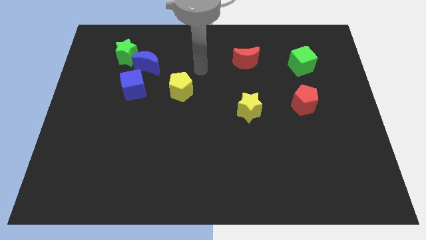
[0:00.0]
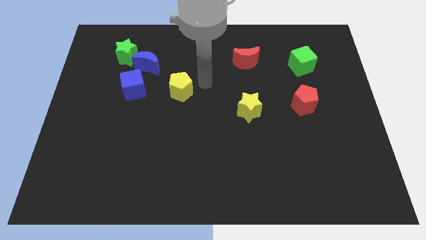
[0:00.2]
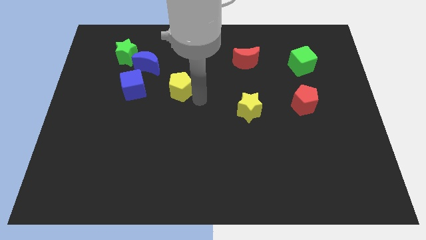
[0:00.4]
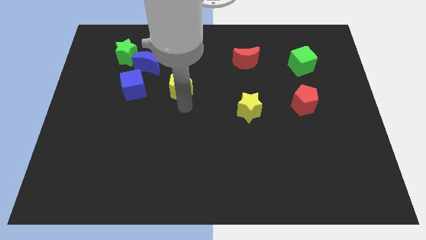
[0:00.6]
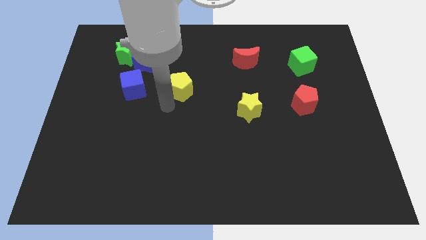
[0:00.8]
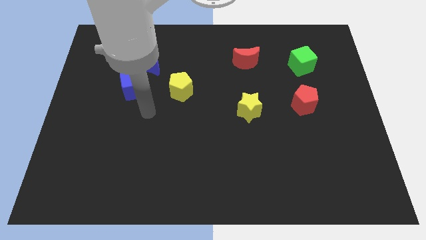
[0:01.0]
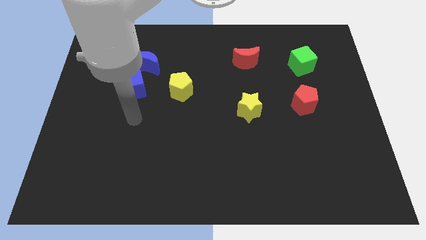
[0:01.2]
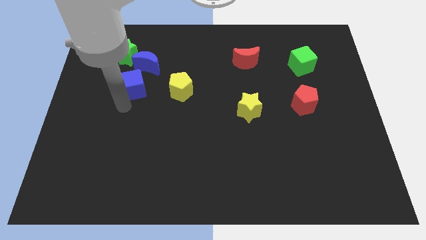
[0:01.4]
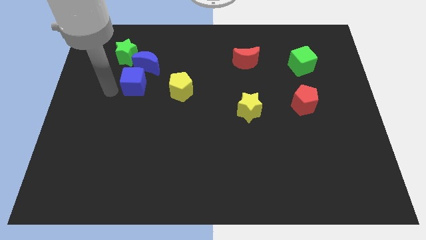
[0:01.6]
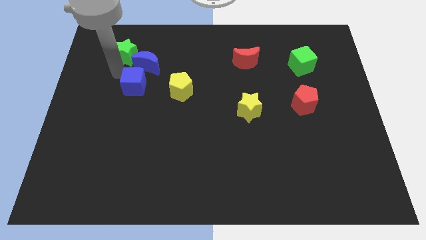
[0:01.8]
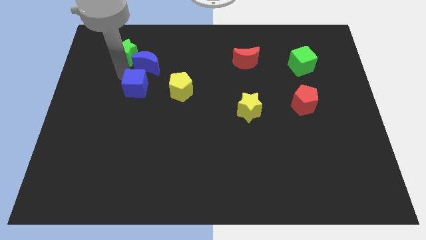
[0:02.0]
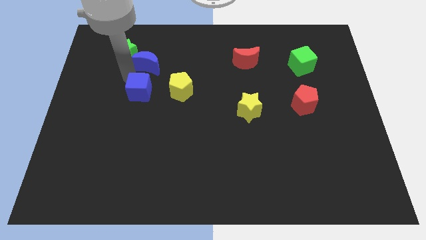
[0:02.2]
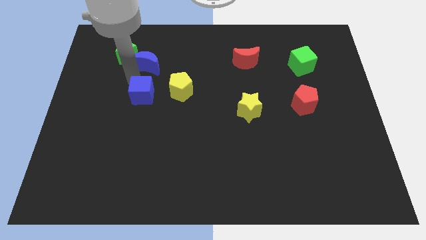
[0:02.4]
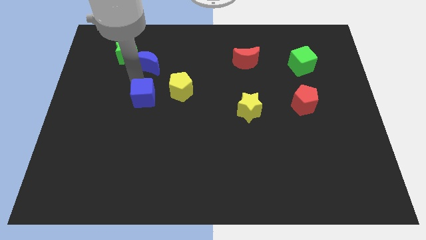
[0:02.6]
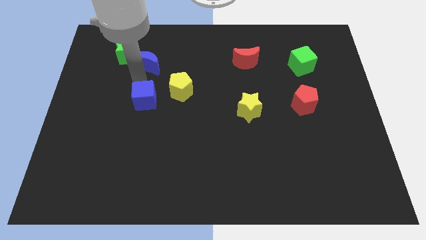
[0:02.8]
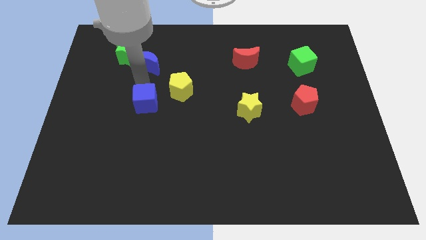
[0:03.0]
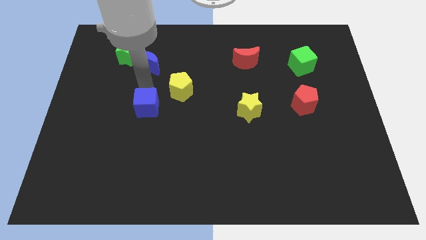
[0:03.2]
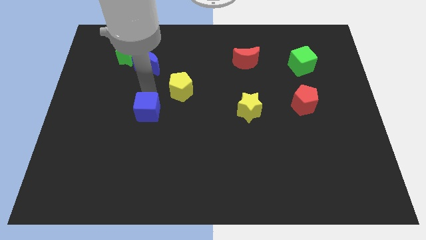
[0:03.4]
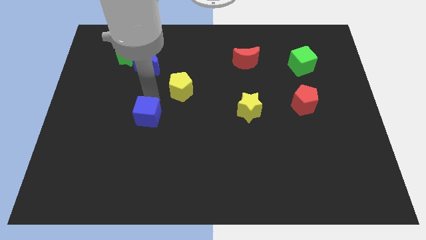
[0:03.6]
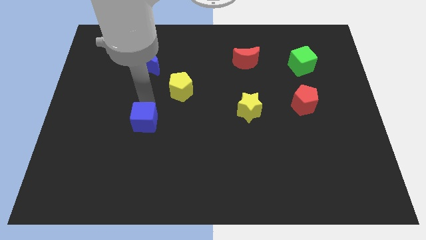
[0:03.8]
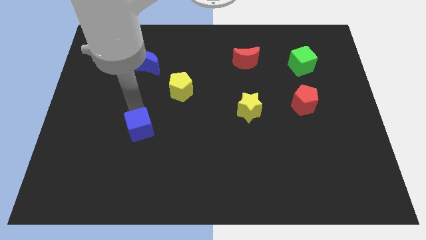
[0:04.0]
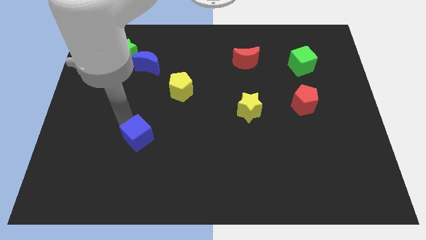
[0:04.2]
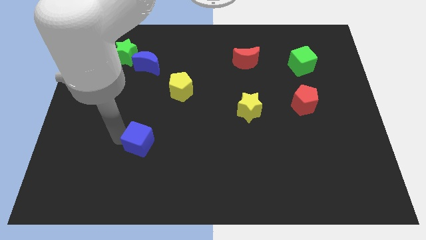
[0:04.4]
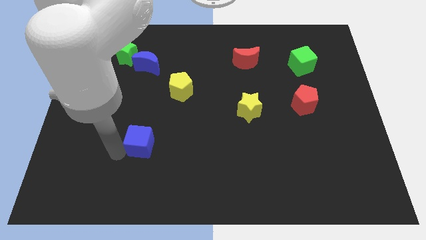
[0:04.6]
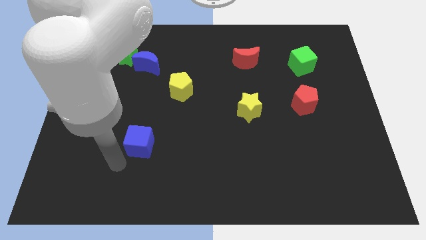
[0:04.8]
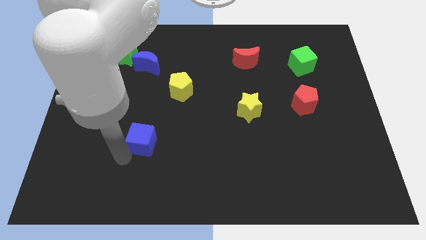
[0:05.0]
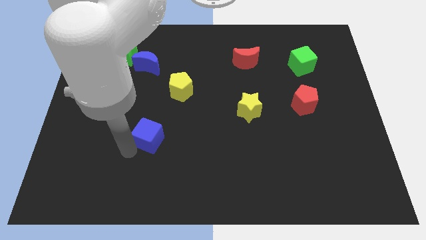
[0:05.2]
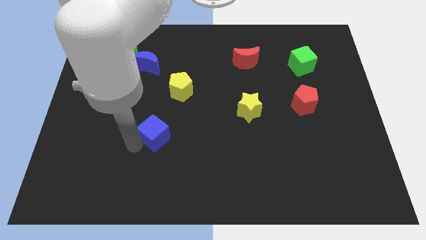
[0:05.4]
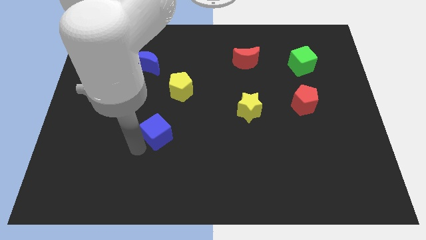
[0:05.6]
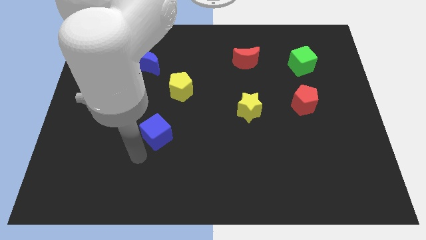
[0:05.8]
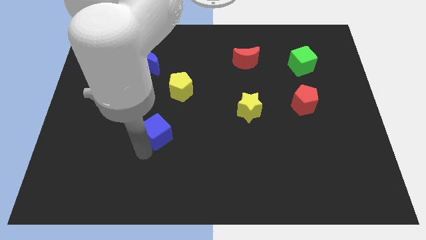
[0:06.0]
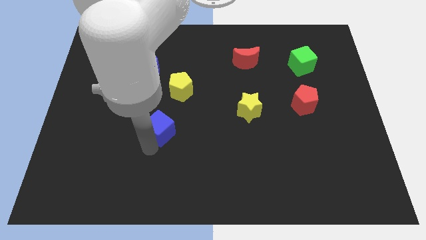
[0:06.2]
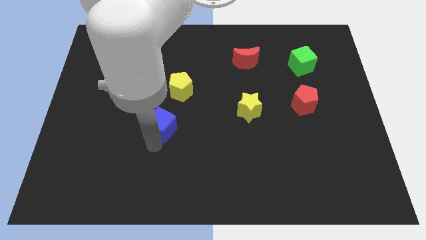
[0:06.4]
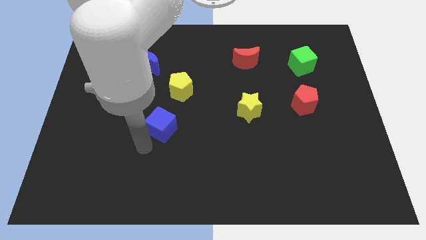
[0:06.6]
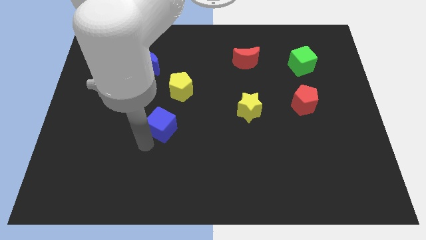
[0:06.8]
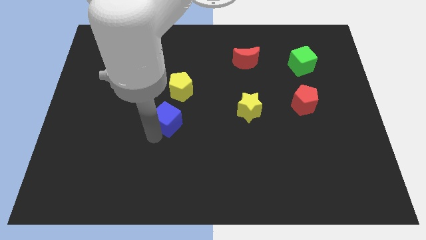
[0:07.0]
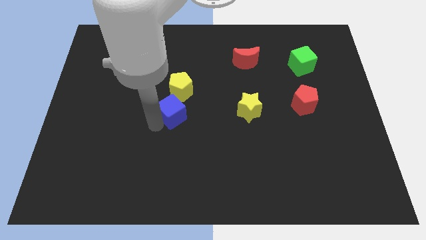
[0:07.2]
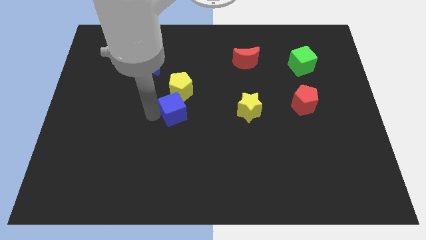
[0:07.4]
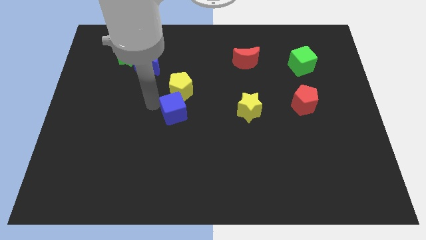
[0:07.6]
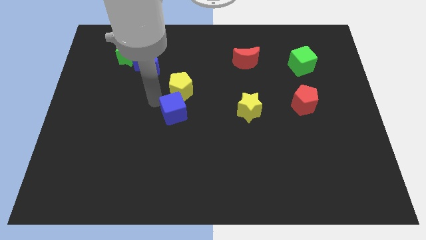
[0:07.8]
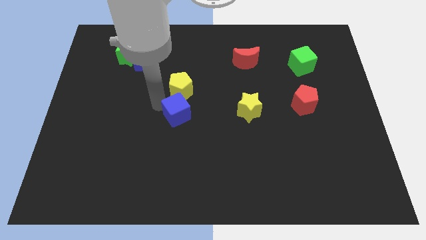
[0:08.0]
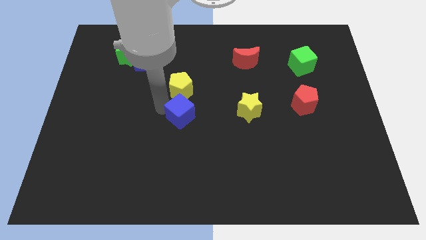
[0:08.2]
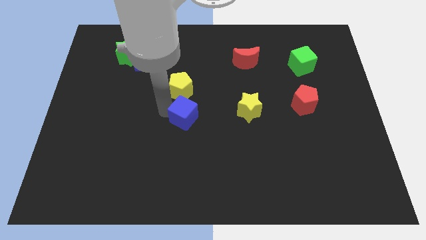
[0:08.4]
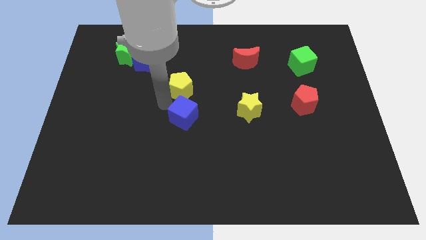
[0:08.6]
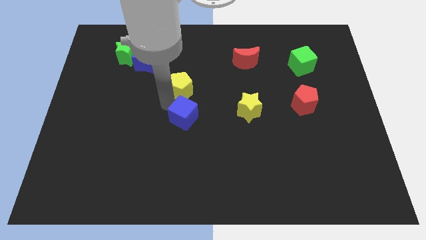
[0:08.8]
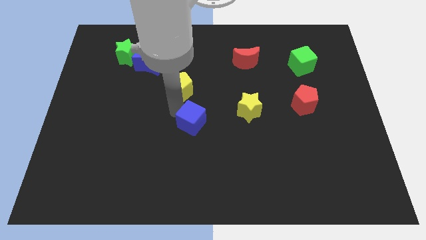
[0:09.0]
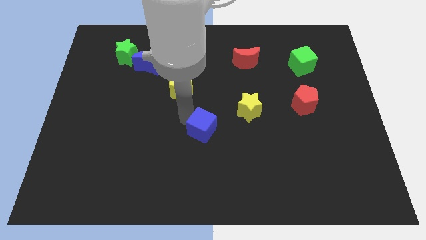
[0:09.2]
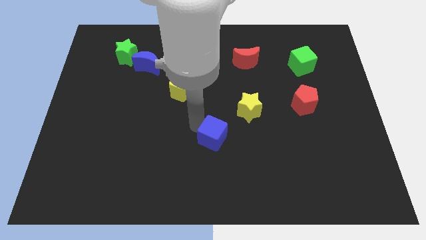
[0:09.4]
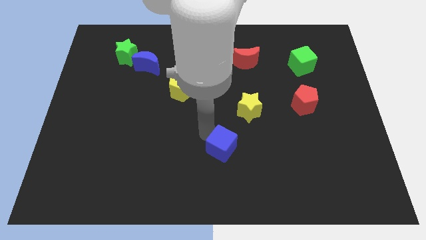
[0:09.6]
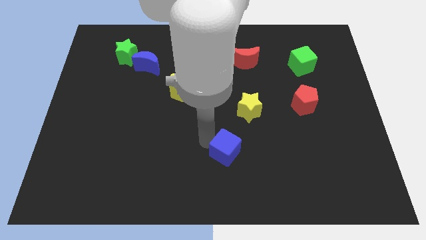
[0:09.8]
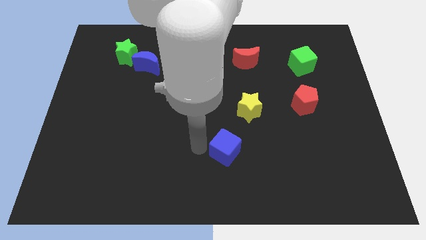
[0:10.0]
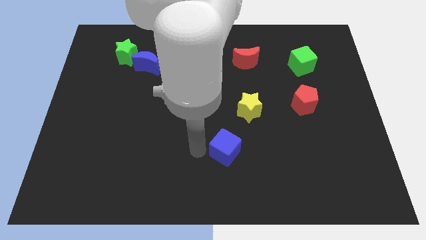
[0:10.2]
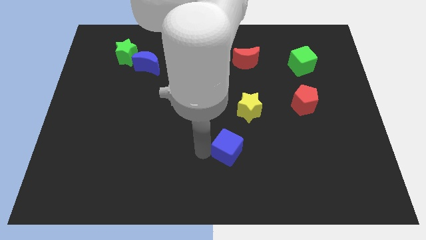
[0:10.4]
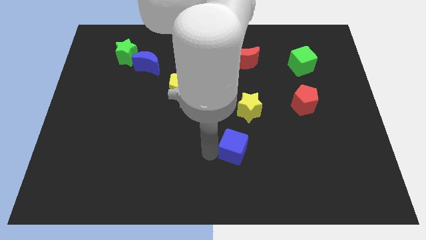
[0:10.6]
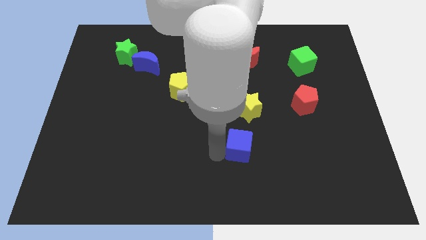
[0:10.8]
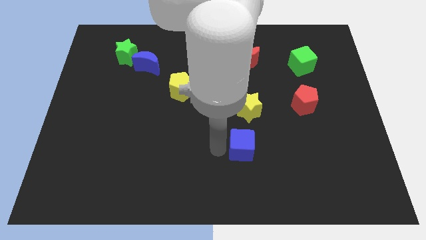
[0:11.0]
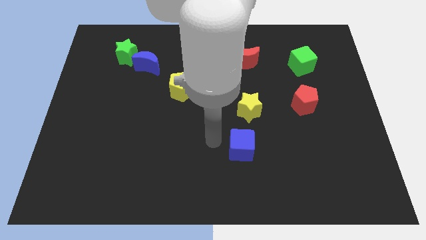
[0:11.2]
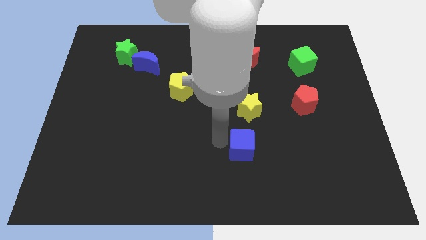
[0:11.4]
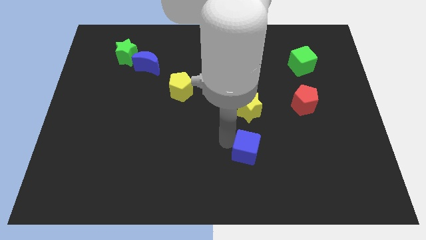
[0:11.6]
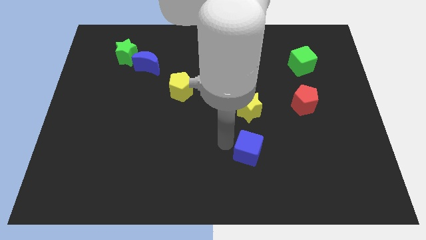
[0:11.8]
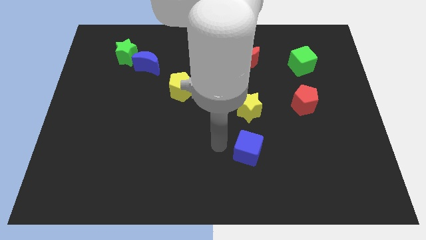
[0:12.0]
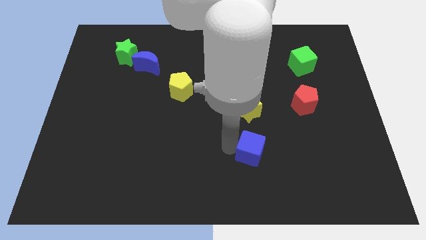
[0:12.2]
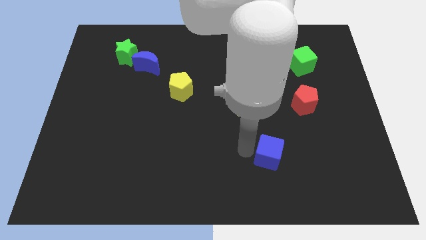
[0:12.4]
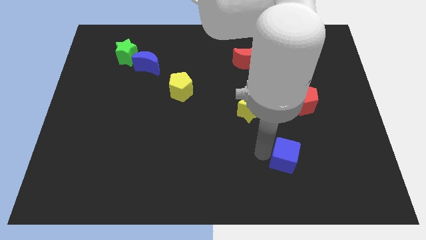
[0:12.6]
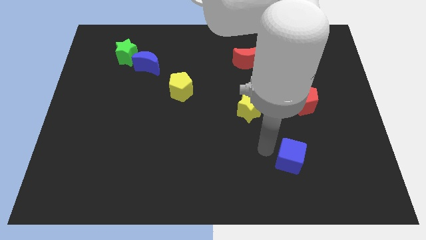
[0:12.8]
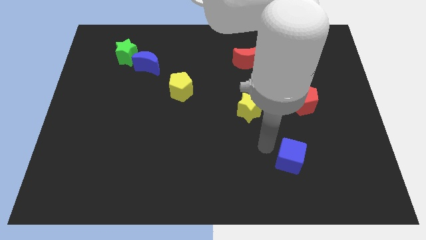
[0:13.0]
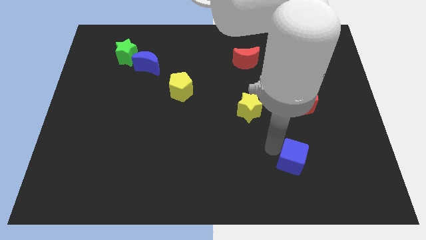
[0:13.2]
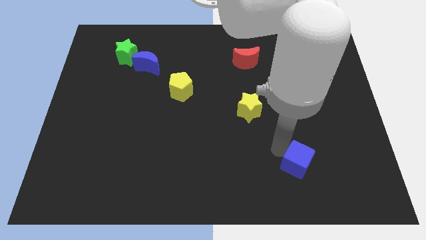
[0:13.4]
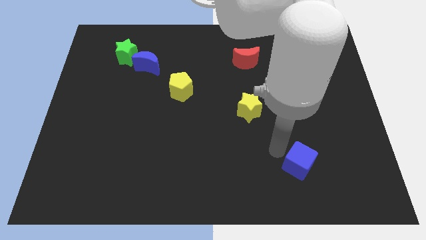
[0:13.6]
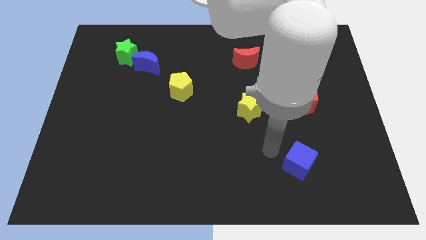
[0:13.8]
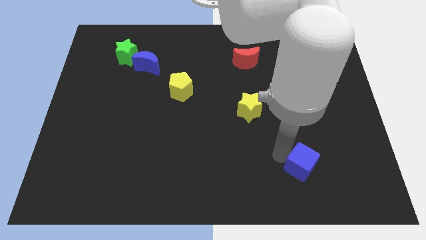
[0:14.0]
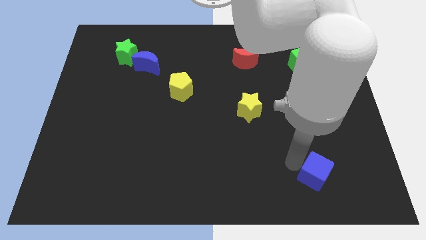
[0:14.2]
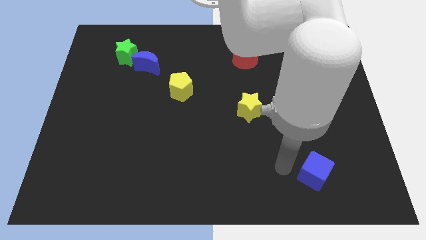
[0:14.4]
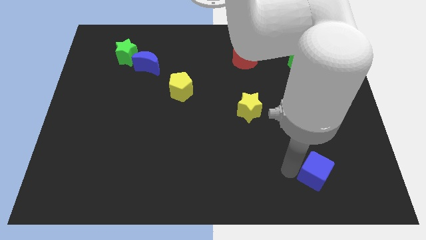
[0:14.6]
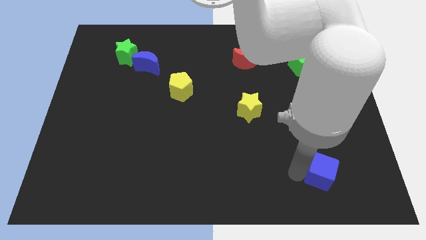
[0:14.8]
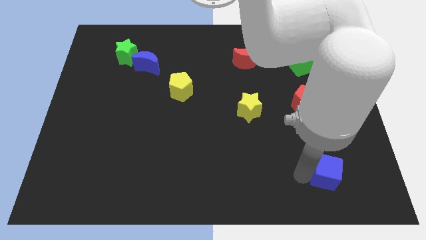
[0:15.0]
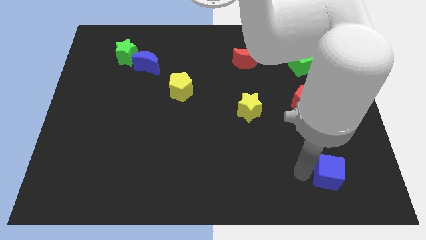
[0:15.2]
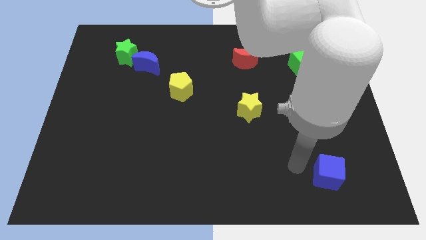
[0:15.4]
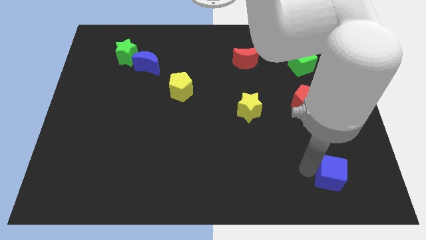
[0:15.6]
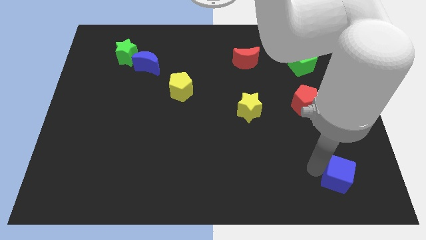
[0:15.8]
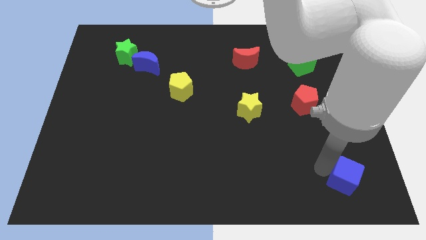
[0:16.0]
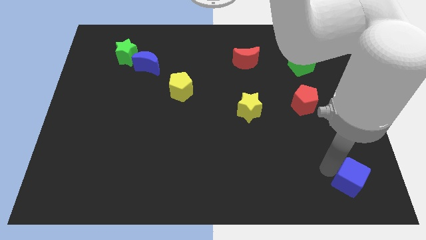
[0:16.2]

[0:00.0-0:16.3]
push the blue cube to the bottom right corner
